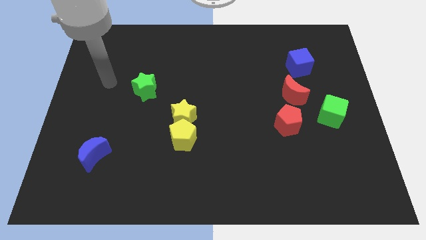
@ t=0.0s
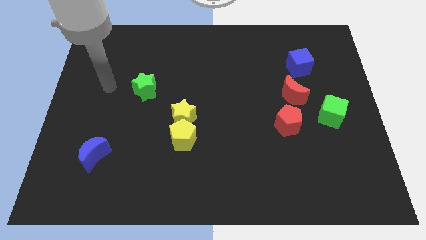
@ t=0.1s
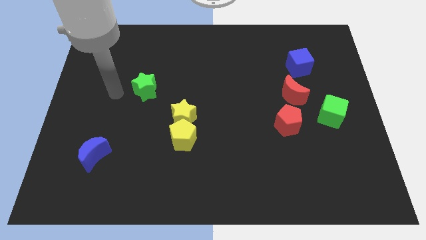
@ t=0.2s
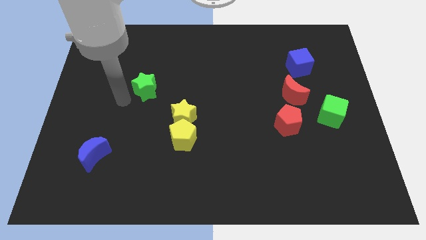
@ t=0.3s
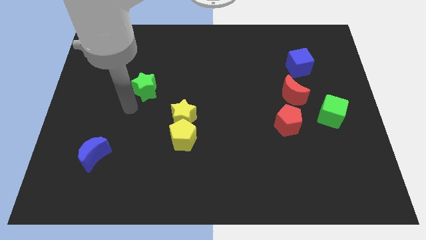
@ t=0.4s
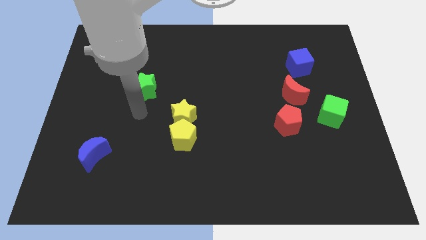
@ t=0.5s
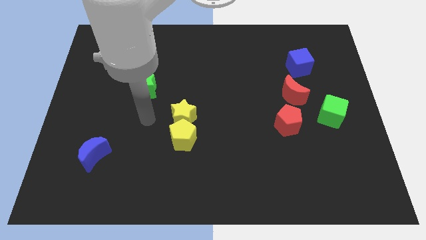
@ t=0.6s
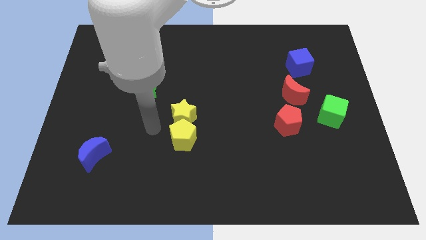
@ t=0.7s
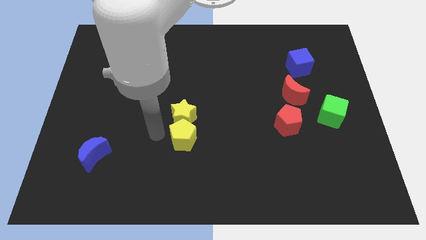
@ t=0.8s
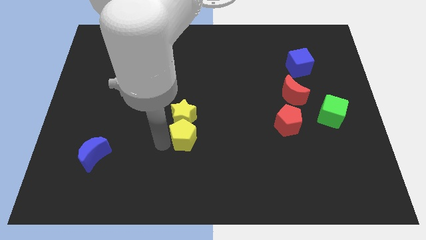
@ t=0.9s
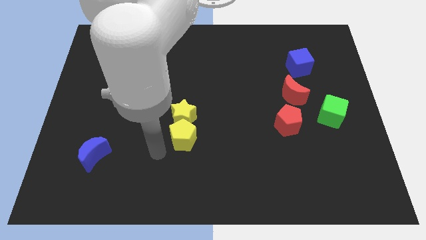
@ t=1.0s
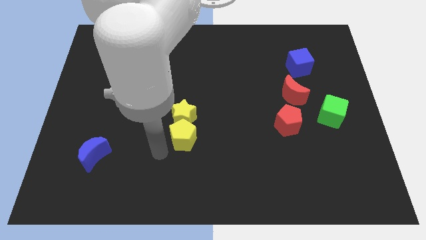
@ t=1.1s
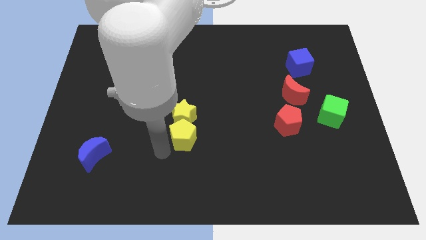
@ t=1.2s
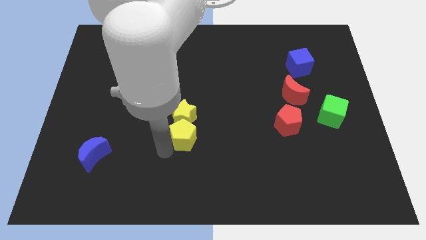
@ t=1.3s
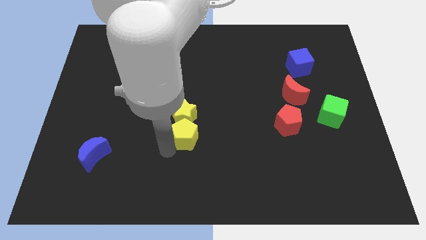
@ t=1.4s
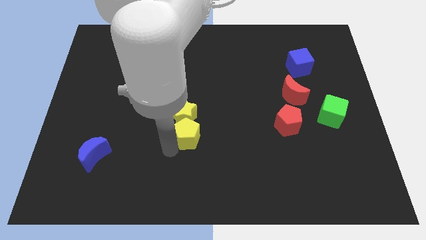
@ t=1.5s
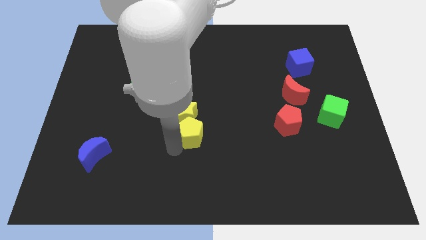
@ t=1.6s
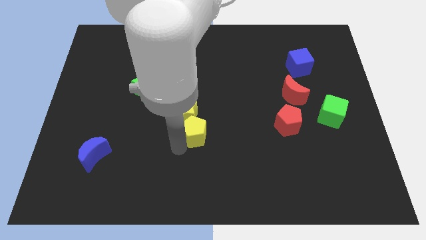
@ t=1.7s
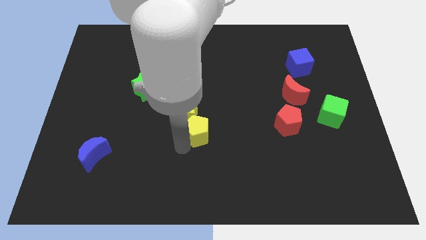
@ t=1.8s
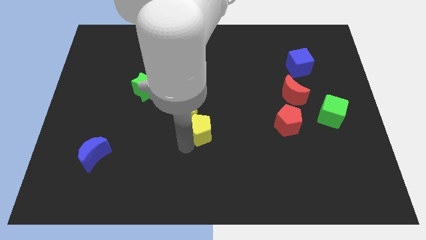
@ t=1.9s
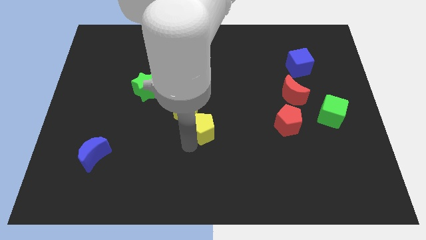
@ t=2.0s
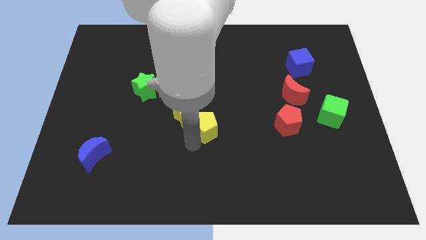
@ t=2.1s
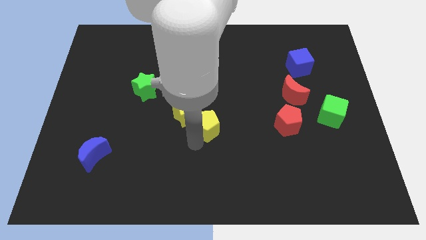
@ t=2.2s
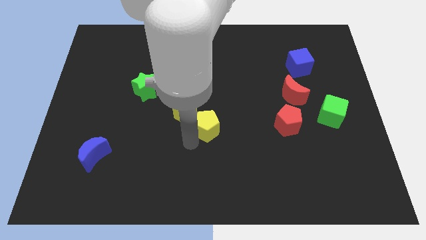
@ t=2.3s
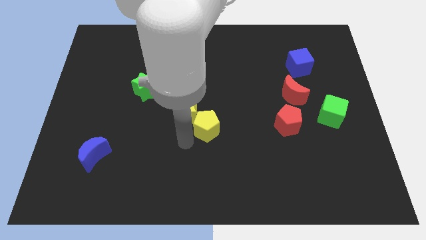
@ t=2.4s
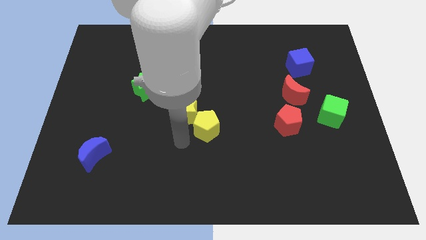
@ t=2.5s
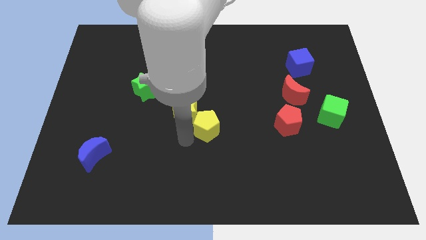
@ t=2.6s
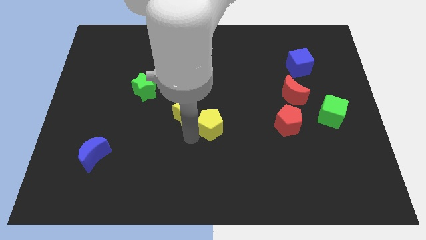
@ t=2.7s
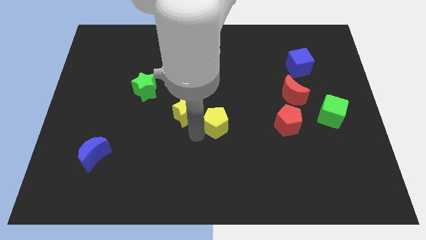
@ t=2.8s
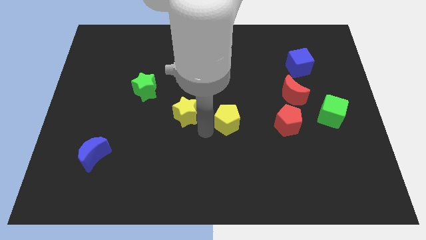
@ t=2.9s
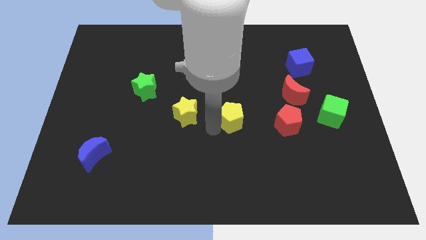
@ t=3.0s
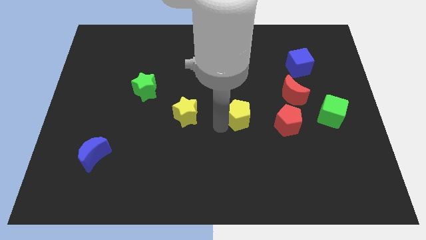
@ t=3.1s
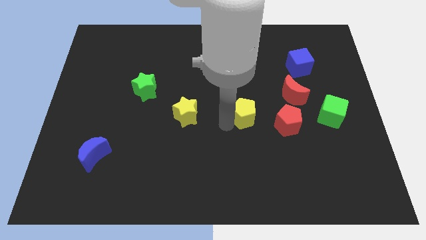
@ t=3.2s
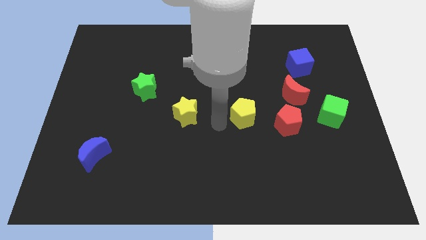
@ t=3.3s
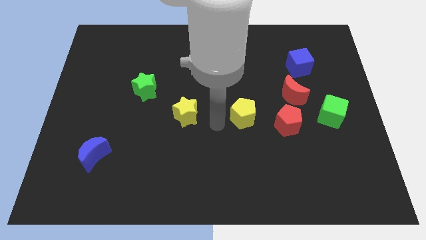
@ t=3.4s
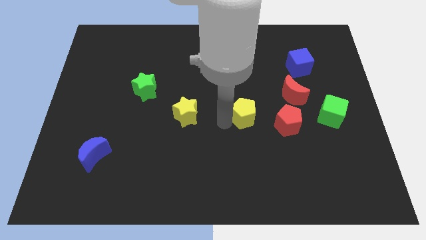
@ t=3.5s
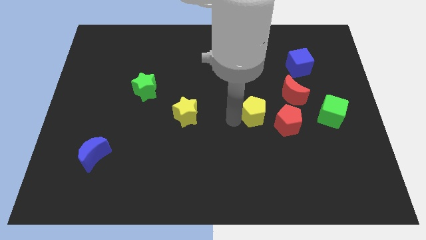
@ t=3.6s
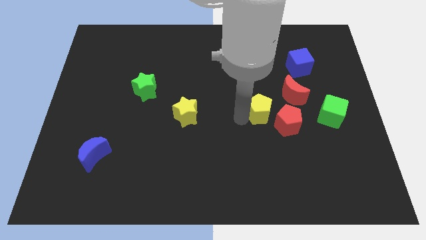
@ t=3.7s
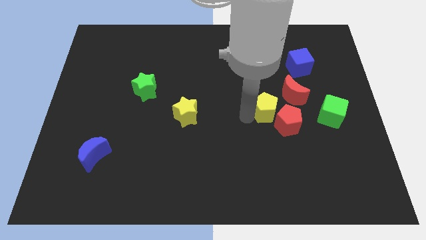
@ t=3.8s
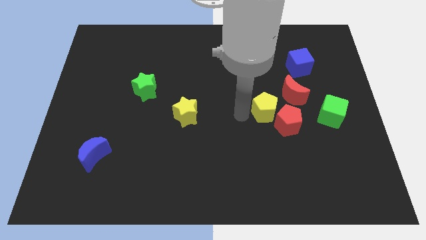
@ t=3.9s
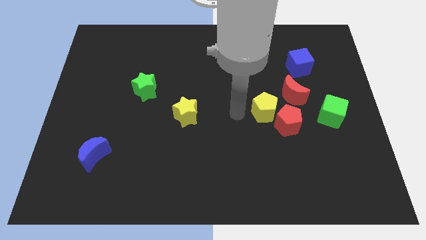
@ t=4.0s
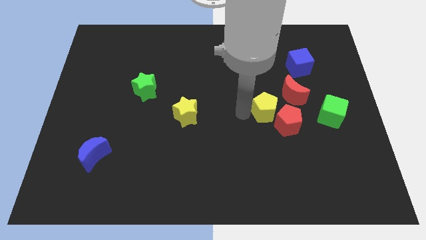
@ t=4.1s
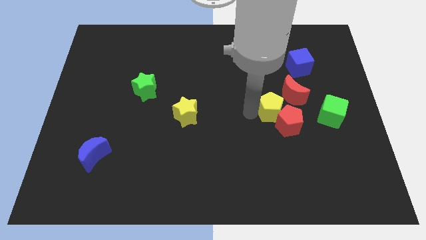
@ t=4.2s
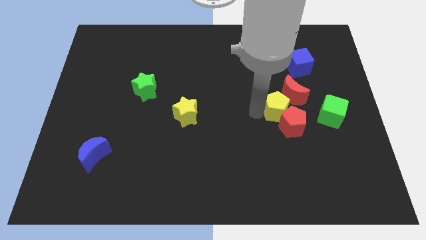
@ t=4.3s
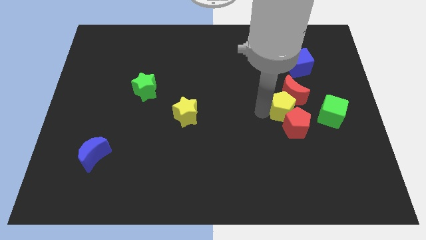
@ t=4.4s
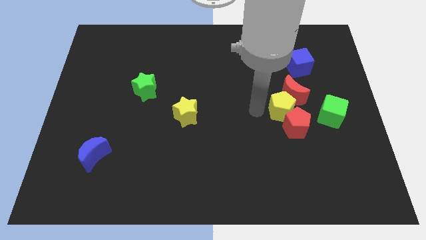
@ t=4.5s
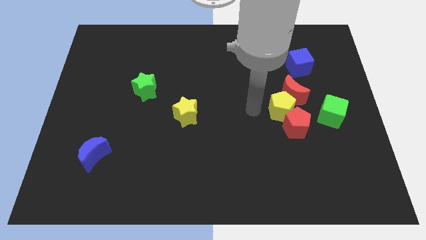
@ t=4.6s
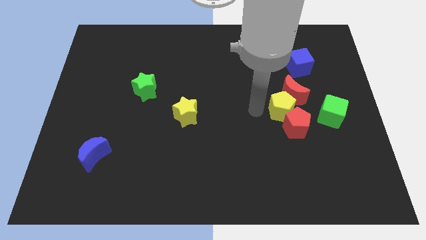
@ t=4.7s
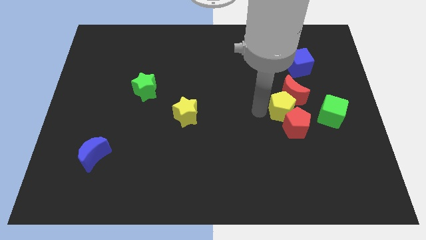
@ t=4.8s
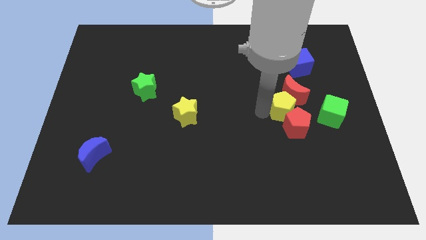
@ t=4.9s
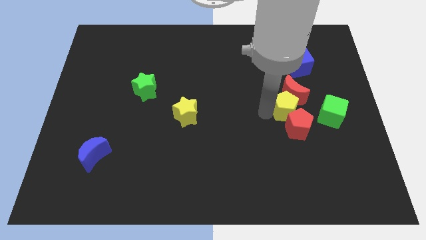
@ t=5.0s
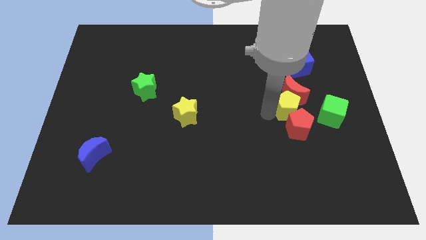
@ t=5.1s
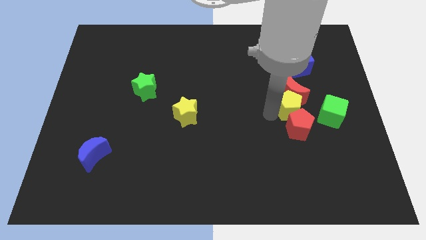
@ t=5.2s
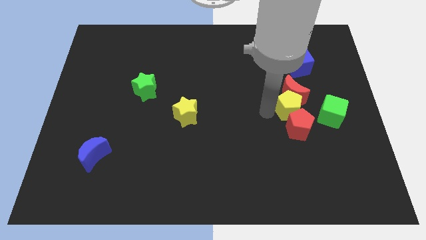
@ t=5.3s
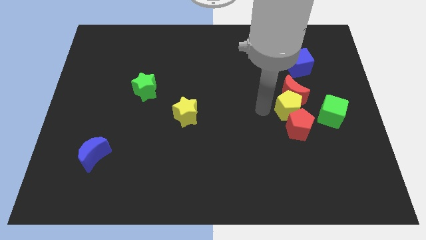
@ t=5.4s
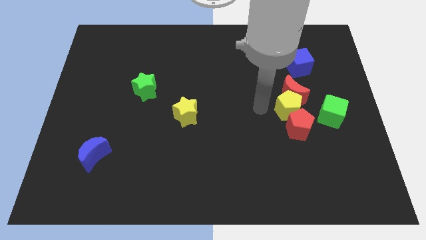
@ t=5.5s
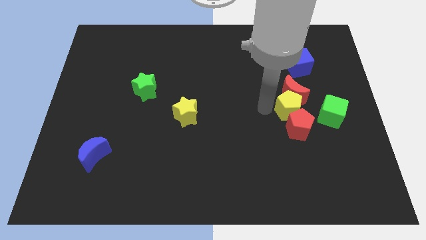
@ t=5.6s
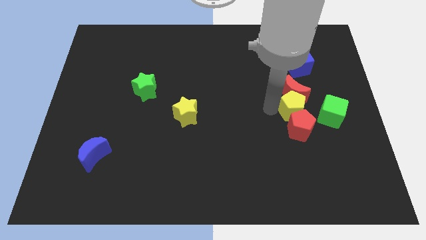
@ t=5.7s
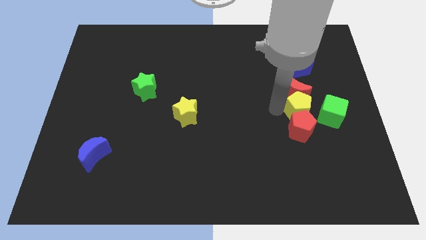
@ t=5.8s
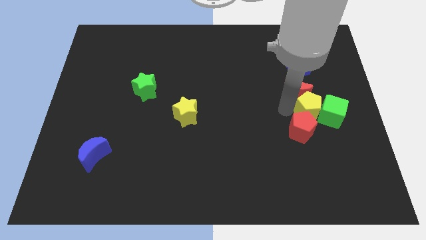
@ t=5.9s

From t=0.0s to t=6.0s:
move the yellow pentagon towards the green cube

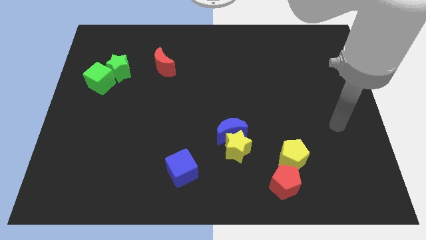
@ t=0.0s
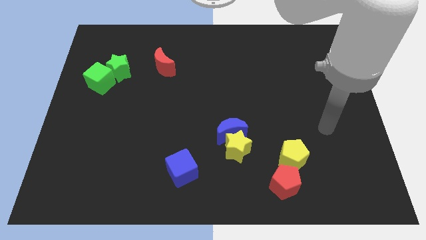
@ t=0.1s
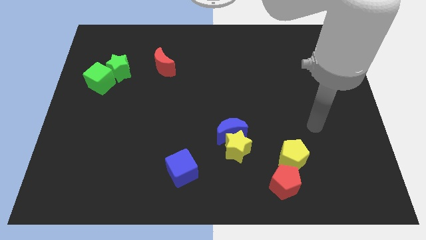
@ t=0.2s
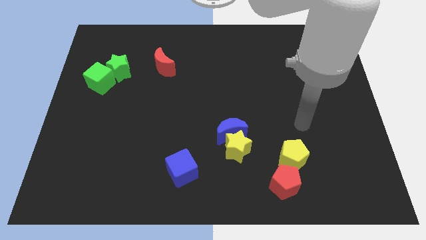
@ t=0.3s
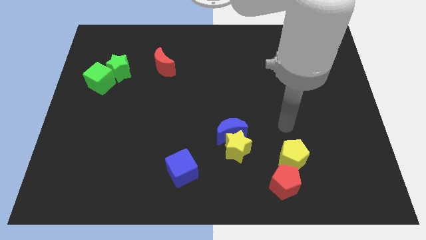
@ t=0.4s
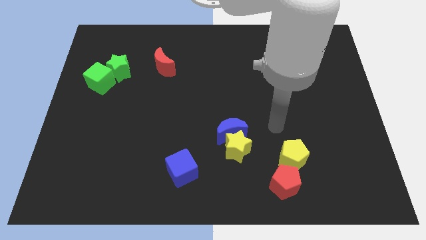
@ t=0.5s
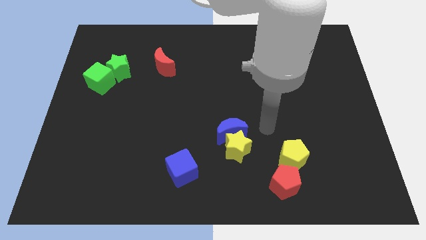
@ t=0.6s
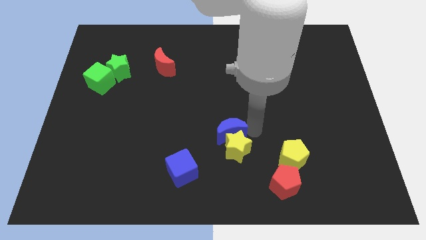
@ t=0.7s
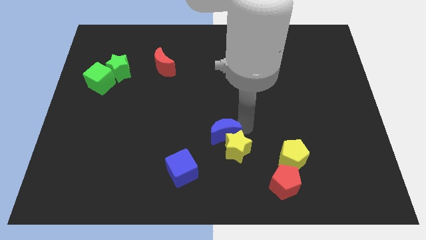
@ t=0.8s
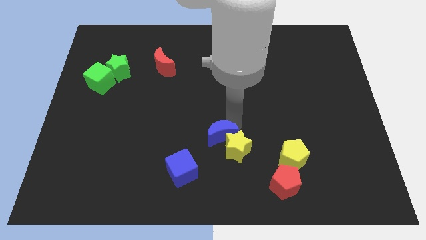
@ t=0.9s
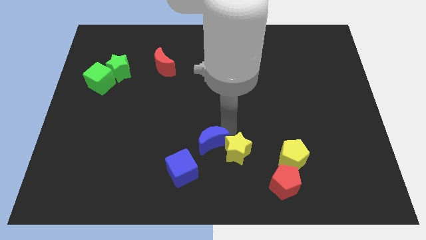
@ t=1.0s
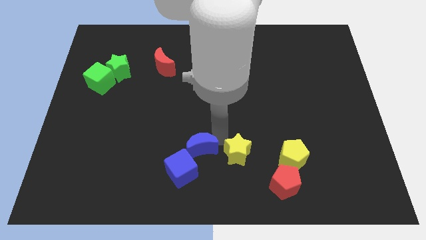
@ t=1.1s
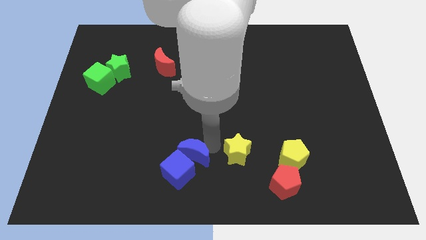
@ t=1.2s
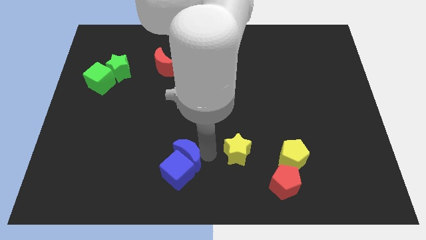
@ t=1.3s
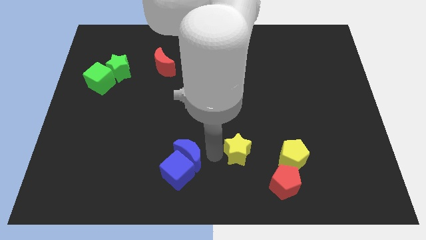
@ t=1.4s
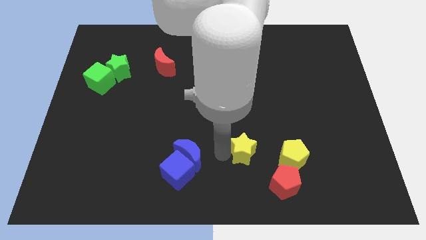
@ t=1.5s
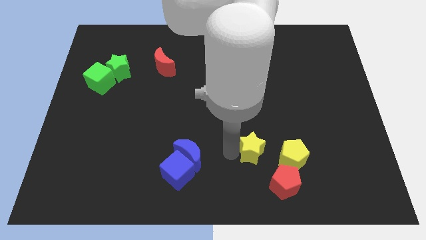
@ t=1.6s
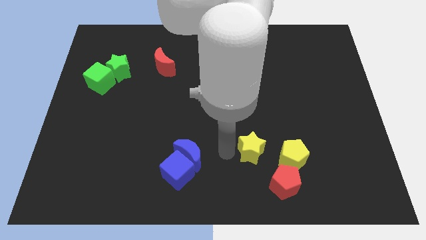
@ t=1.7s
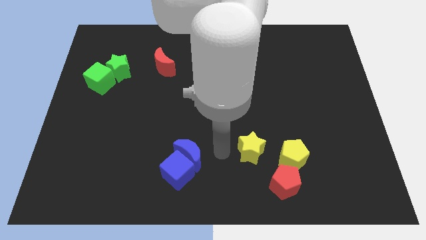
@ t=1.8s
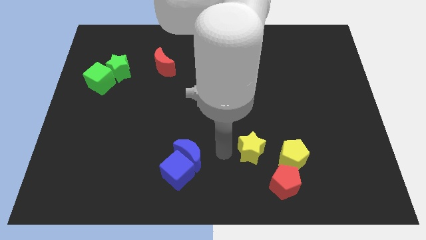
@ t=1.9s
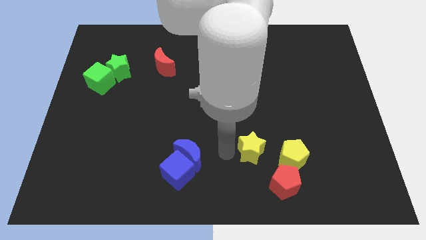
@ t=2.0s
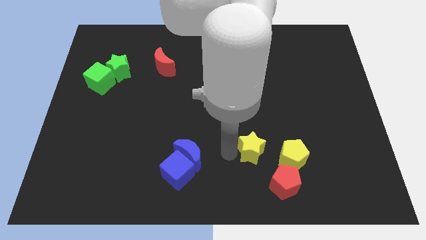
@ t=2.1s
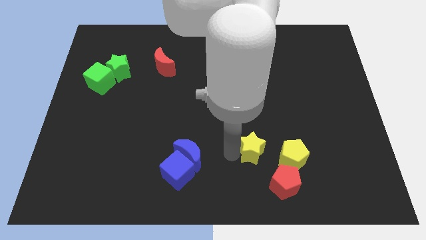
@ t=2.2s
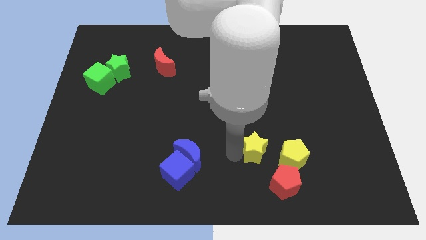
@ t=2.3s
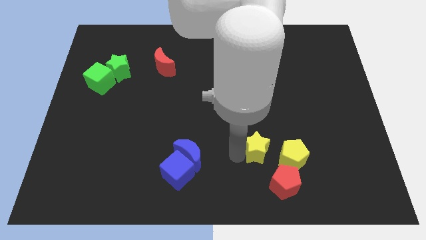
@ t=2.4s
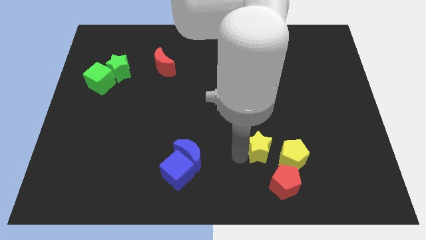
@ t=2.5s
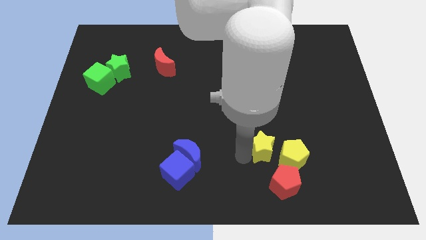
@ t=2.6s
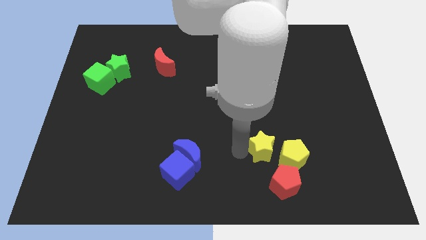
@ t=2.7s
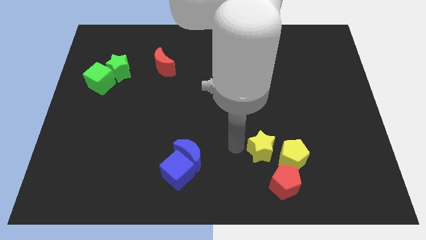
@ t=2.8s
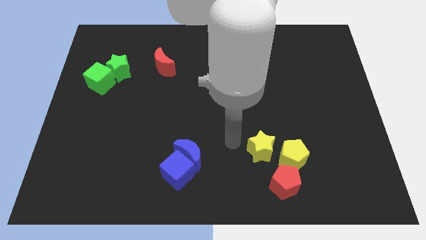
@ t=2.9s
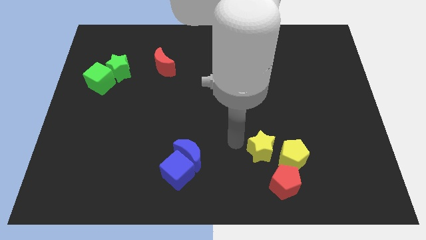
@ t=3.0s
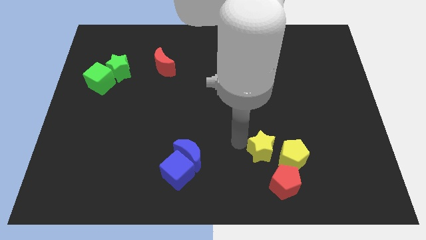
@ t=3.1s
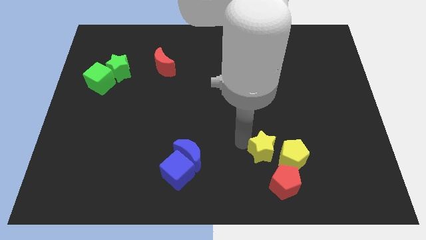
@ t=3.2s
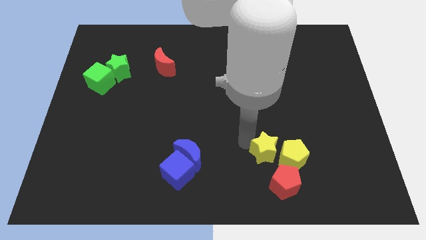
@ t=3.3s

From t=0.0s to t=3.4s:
push the yellow star towards the yellow pentagon
